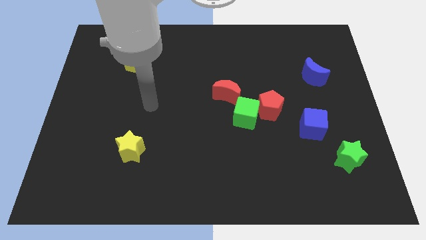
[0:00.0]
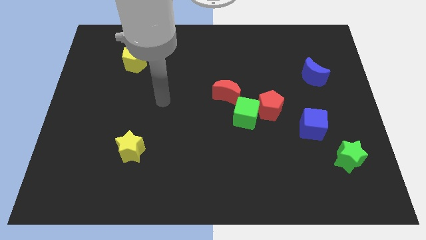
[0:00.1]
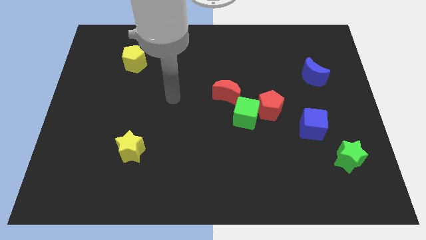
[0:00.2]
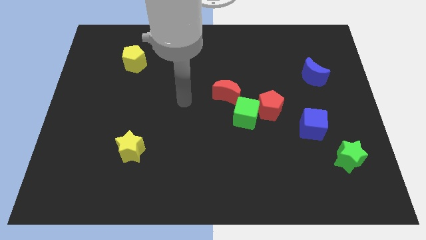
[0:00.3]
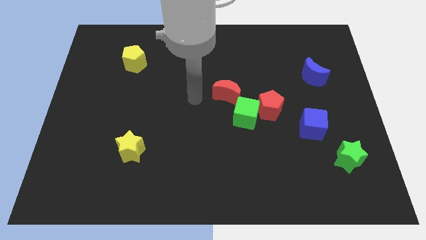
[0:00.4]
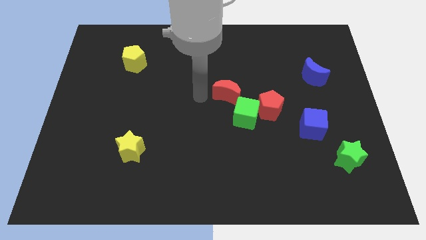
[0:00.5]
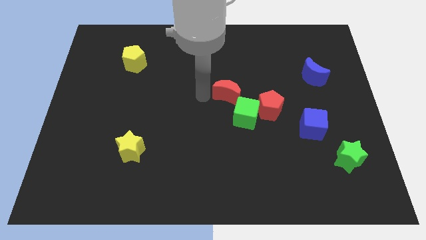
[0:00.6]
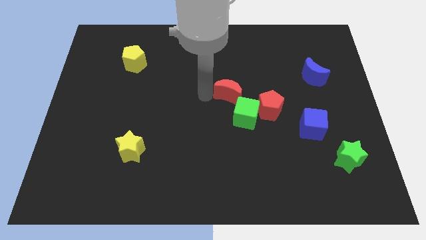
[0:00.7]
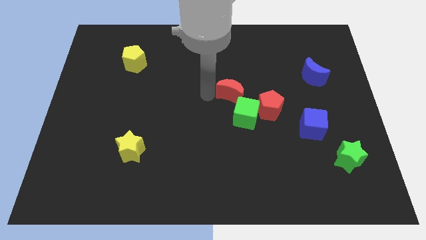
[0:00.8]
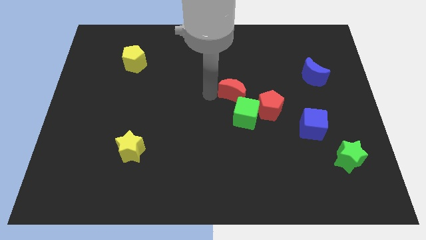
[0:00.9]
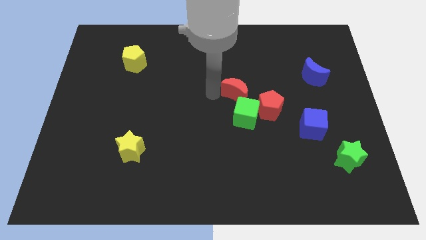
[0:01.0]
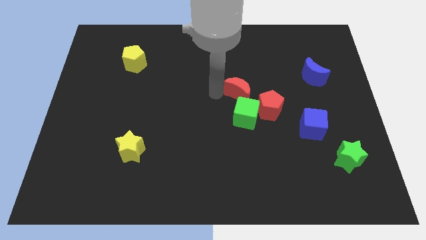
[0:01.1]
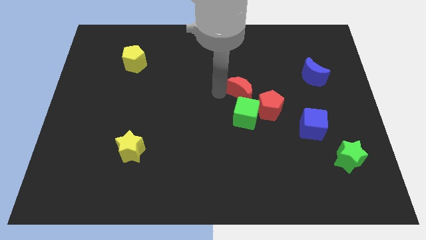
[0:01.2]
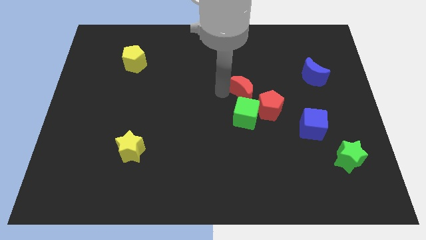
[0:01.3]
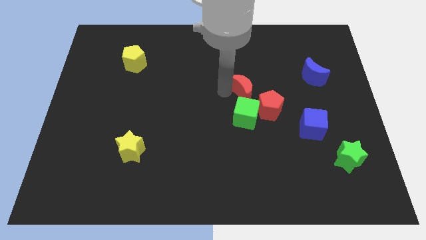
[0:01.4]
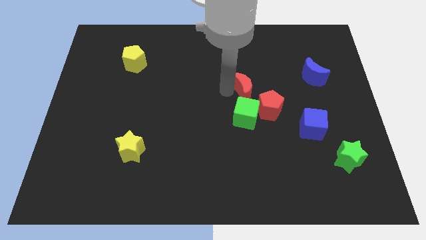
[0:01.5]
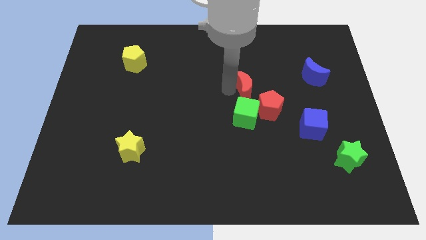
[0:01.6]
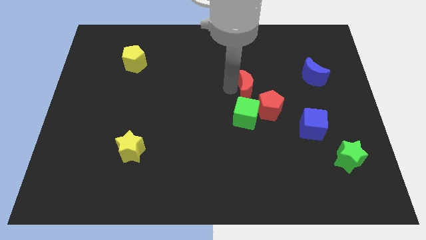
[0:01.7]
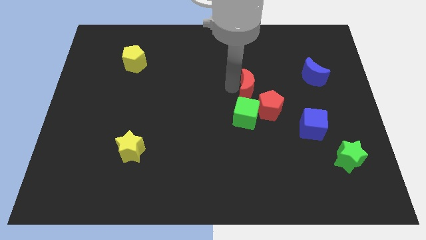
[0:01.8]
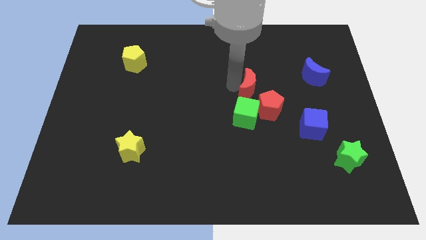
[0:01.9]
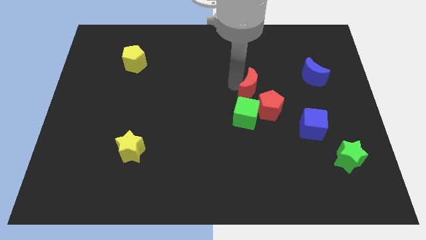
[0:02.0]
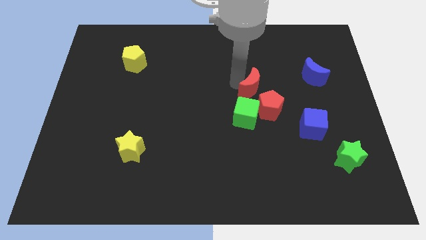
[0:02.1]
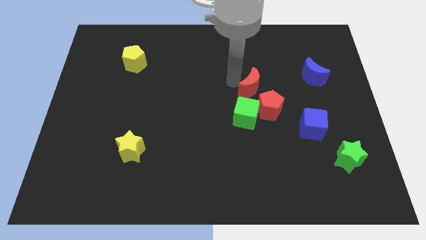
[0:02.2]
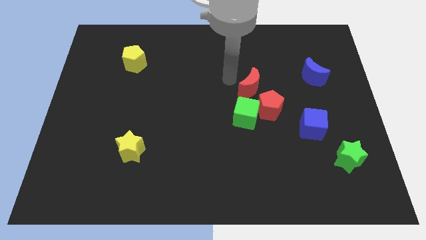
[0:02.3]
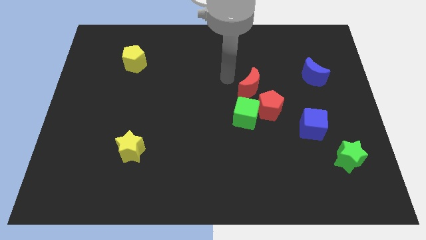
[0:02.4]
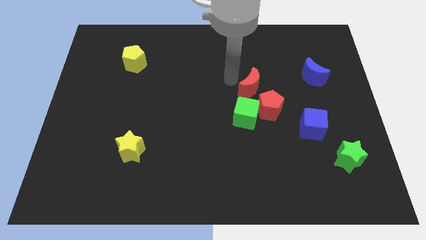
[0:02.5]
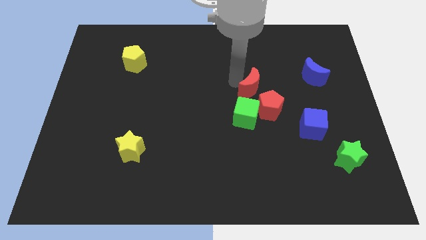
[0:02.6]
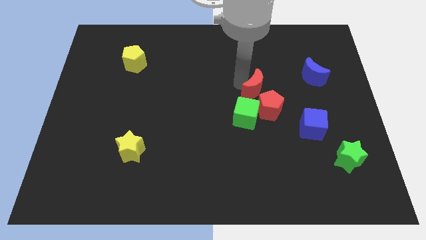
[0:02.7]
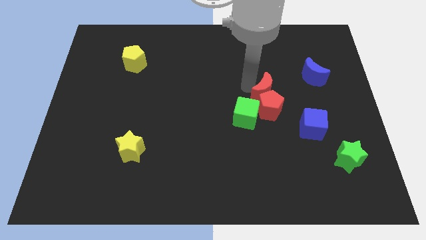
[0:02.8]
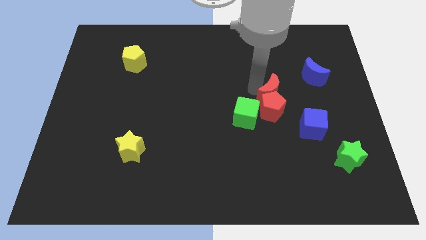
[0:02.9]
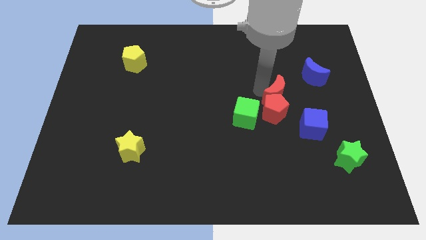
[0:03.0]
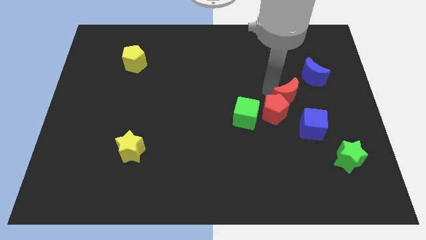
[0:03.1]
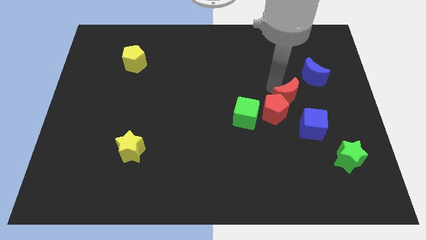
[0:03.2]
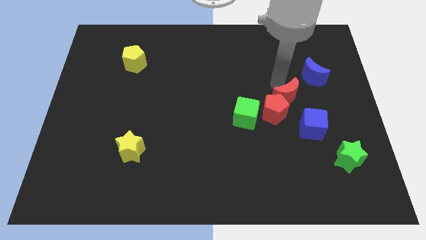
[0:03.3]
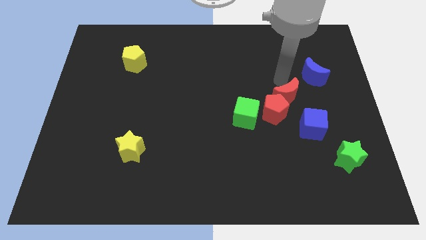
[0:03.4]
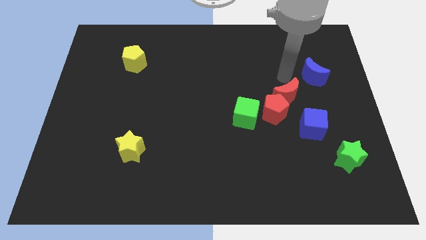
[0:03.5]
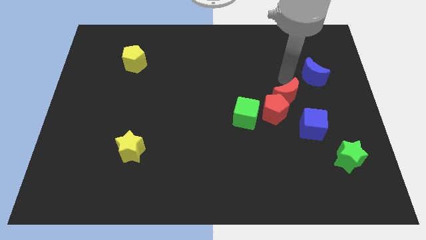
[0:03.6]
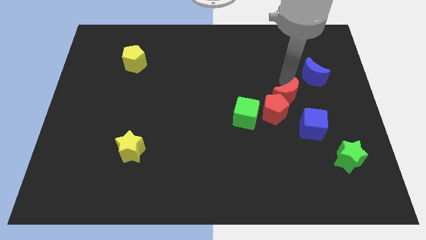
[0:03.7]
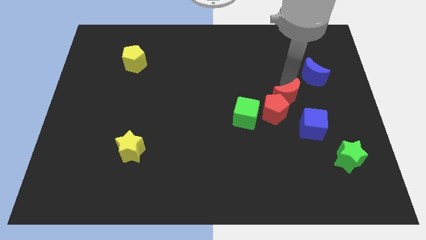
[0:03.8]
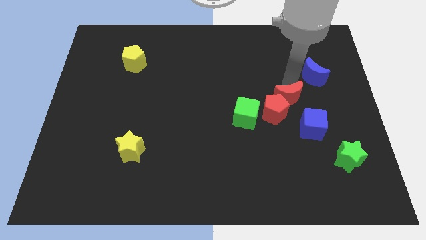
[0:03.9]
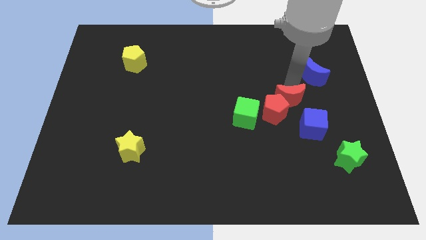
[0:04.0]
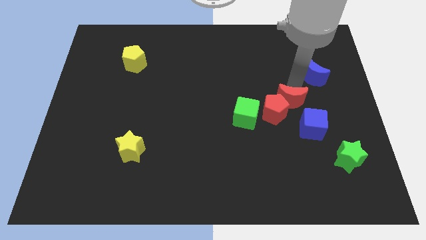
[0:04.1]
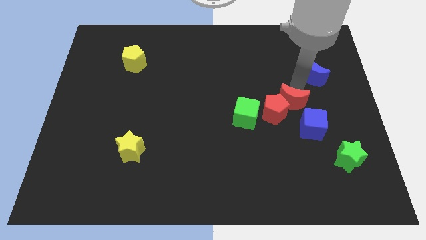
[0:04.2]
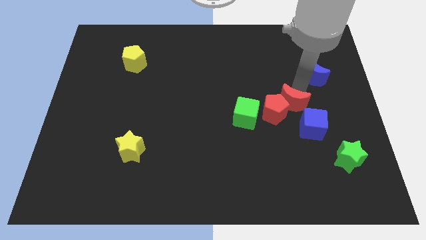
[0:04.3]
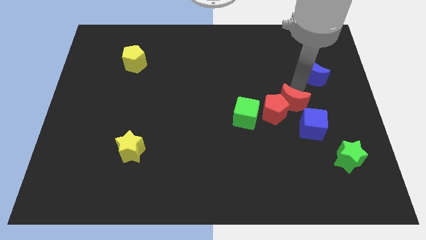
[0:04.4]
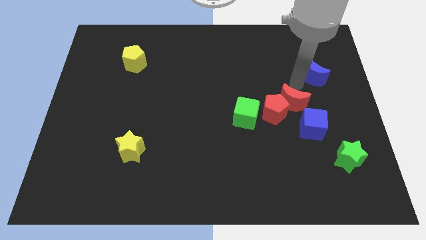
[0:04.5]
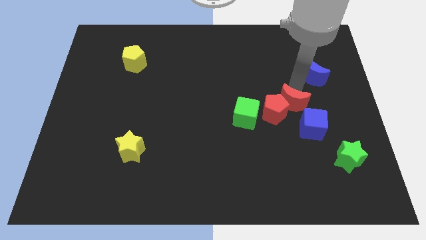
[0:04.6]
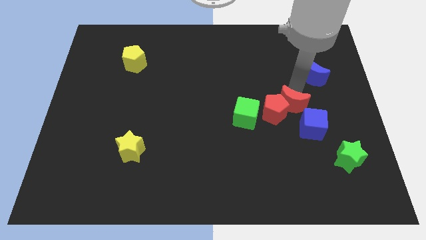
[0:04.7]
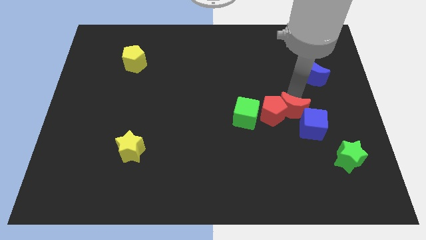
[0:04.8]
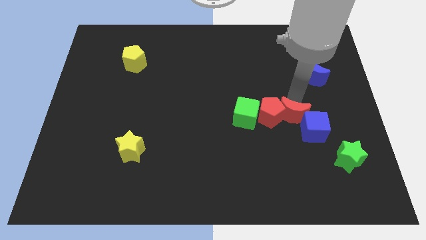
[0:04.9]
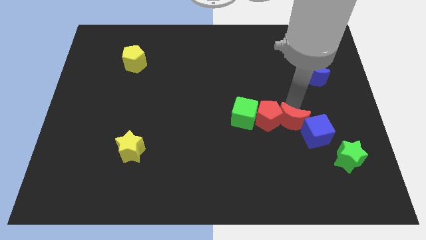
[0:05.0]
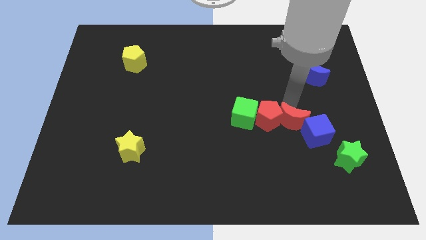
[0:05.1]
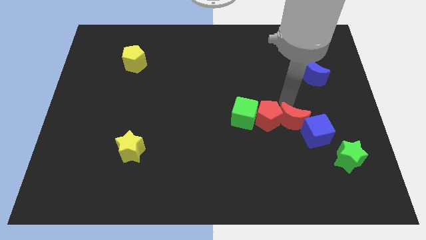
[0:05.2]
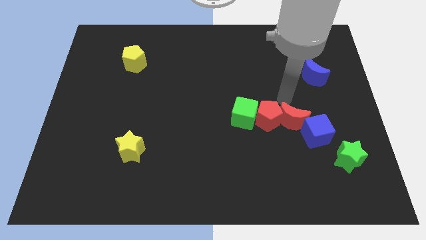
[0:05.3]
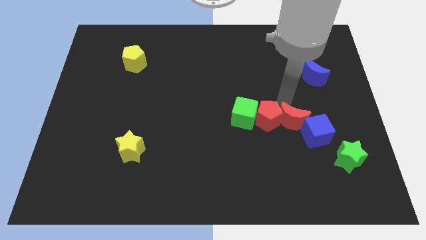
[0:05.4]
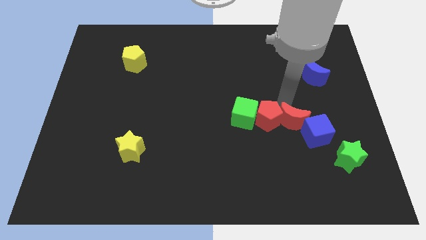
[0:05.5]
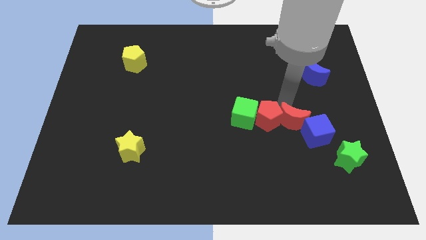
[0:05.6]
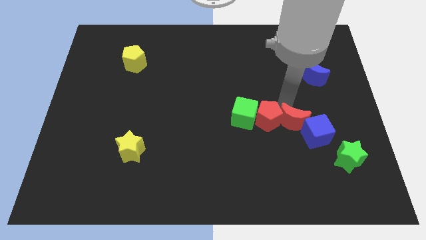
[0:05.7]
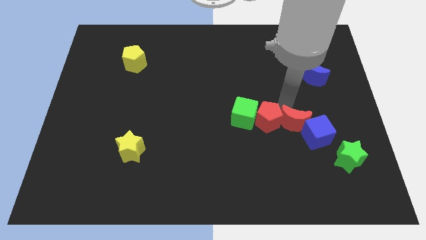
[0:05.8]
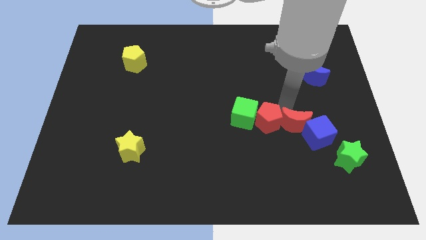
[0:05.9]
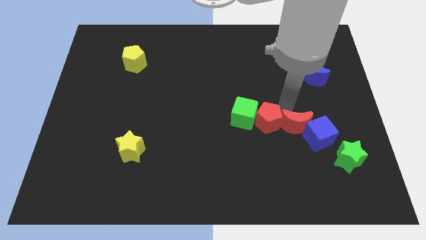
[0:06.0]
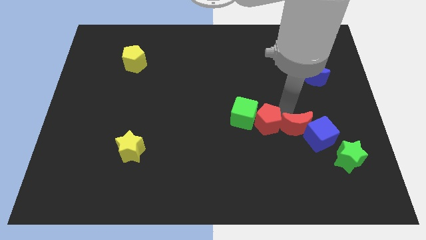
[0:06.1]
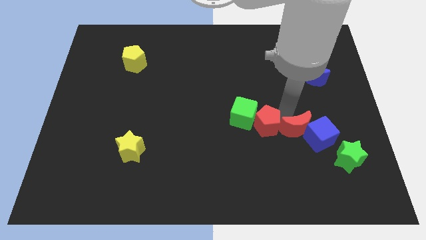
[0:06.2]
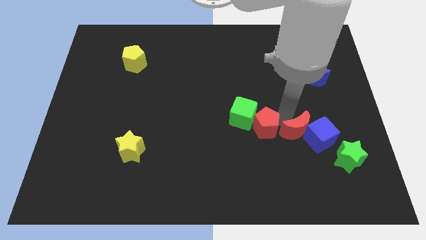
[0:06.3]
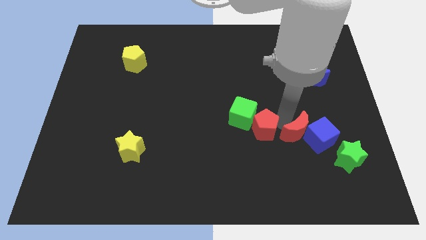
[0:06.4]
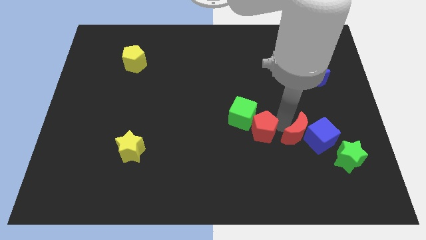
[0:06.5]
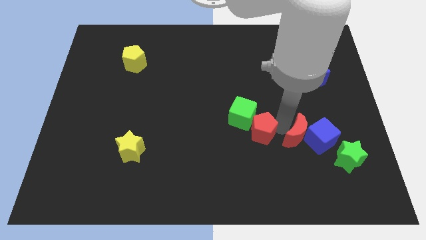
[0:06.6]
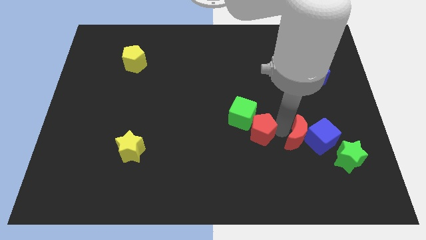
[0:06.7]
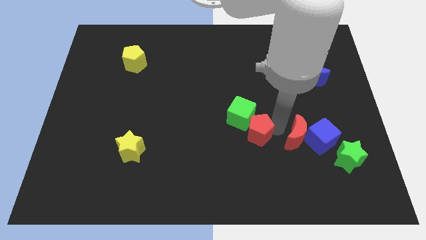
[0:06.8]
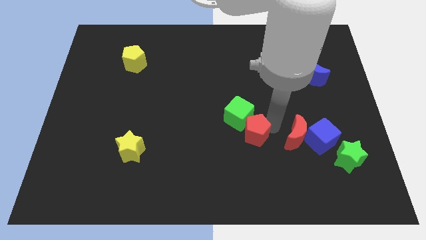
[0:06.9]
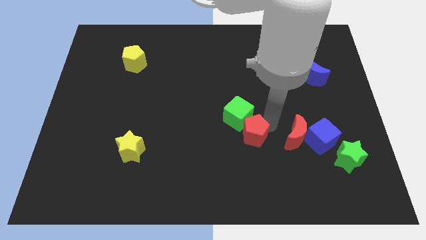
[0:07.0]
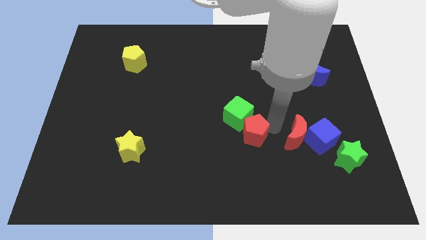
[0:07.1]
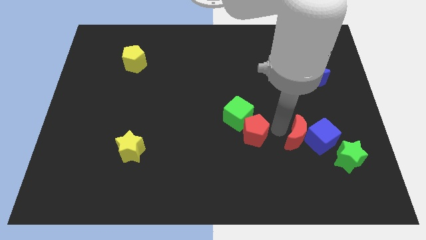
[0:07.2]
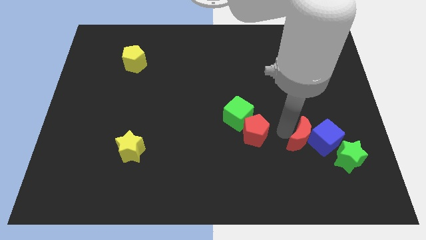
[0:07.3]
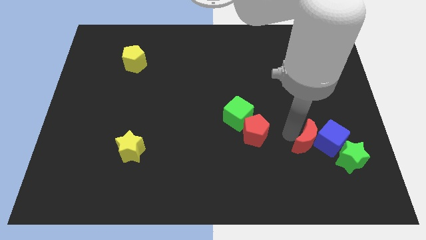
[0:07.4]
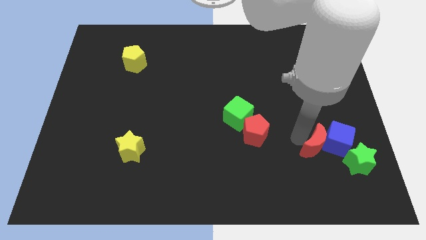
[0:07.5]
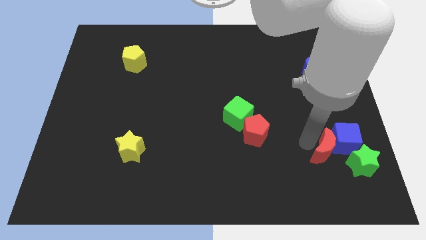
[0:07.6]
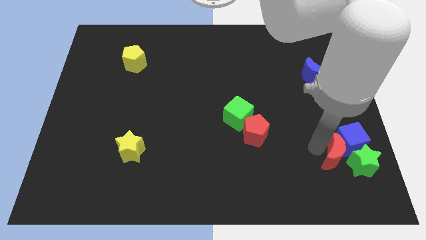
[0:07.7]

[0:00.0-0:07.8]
put the red moon next to the green star
